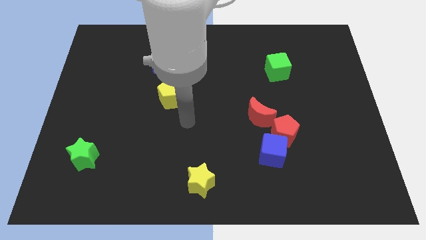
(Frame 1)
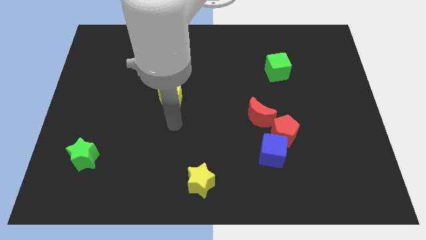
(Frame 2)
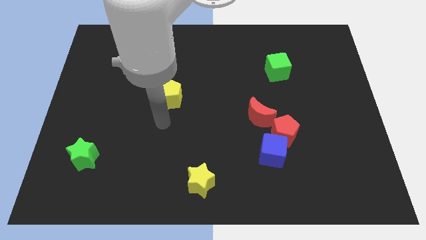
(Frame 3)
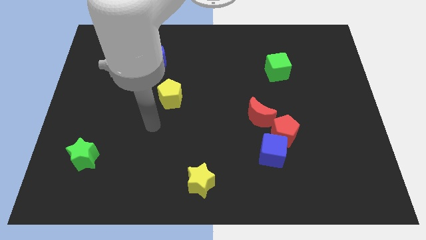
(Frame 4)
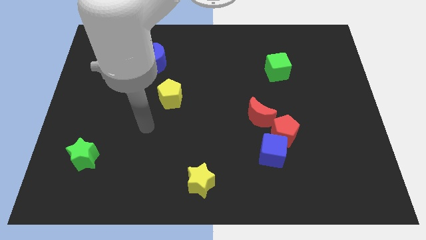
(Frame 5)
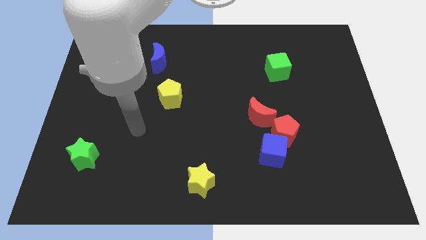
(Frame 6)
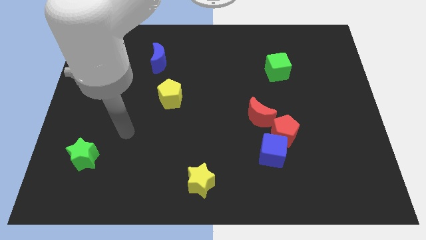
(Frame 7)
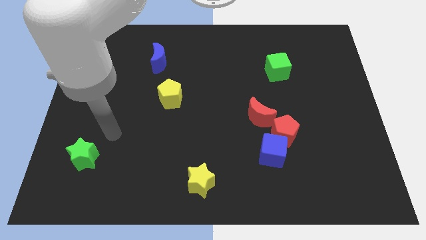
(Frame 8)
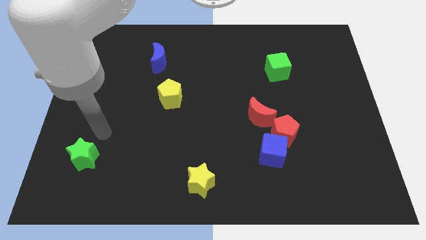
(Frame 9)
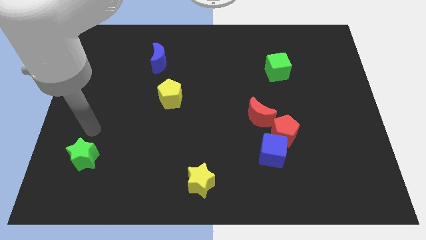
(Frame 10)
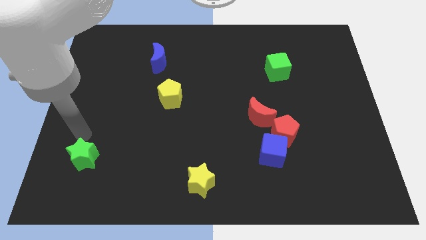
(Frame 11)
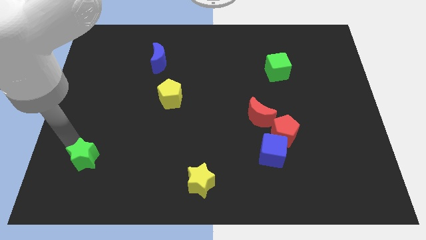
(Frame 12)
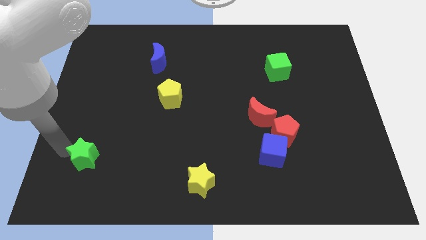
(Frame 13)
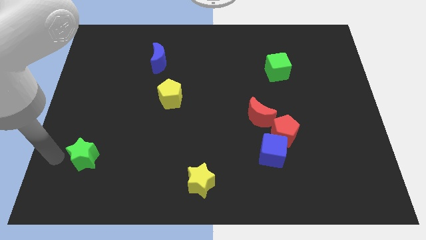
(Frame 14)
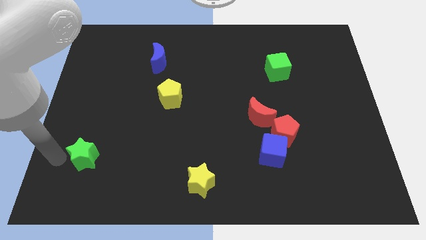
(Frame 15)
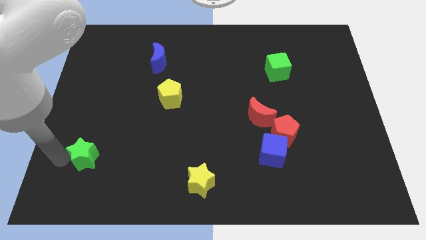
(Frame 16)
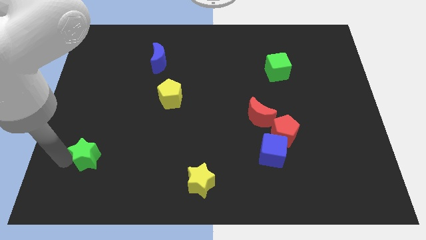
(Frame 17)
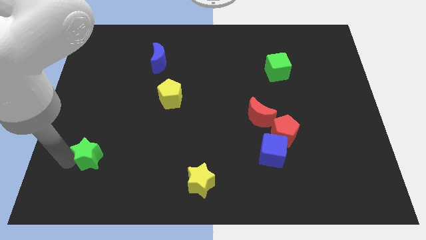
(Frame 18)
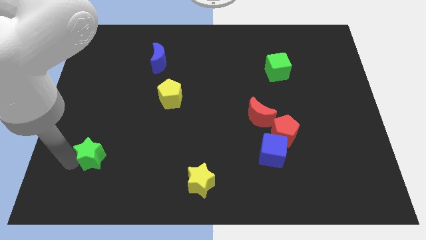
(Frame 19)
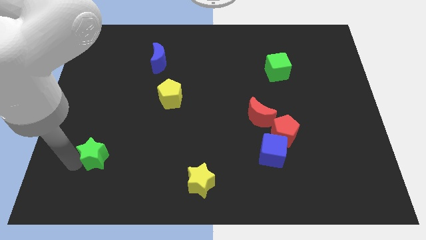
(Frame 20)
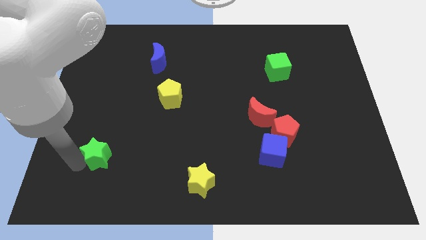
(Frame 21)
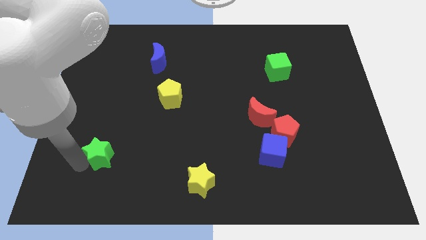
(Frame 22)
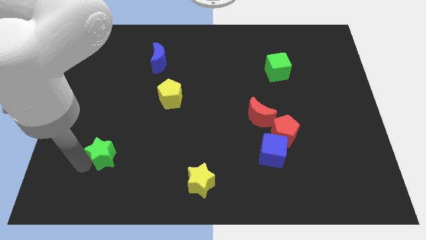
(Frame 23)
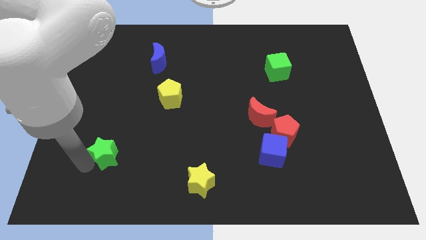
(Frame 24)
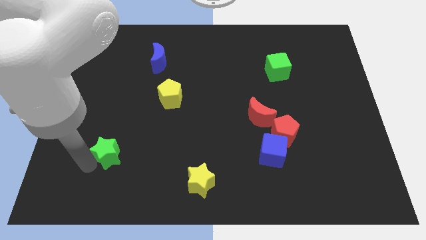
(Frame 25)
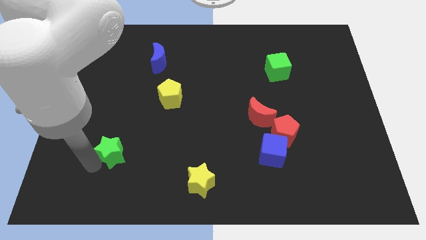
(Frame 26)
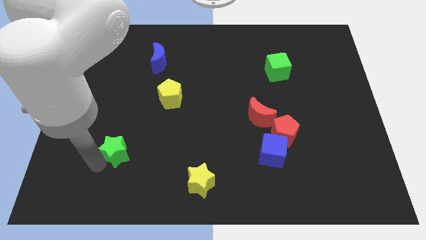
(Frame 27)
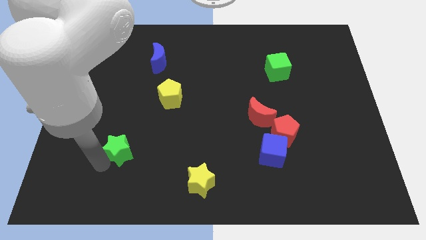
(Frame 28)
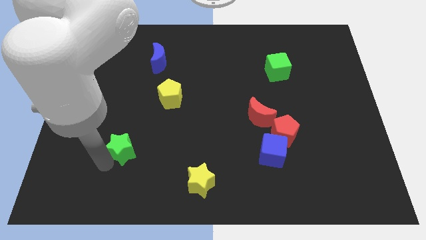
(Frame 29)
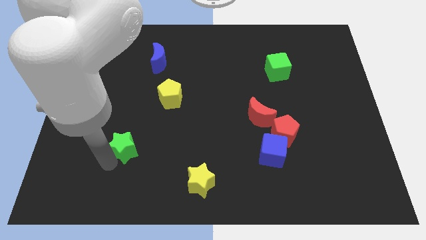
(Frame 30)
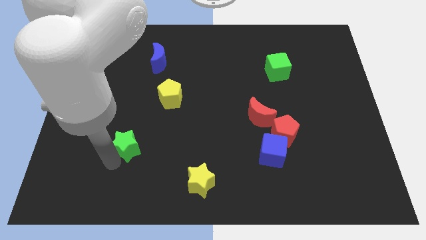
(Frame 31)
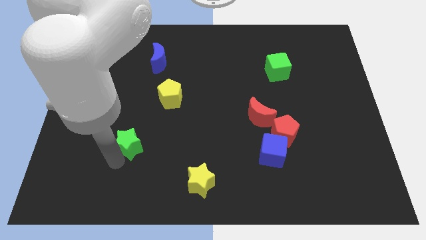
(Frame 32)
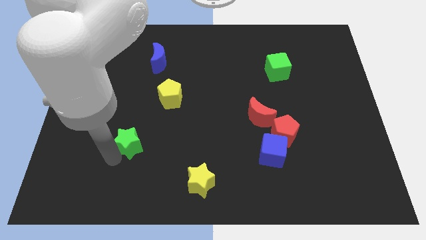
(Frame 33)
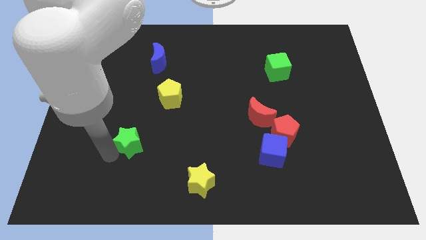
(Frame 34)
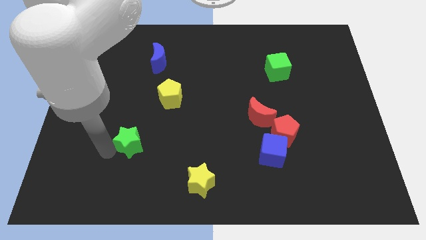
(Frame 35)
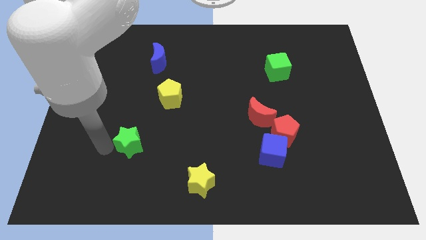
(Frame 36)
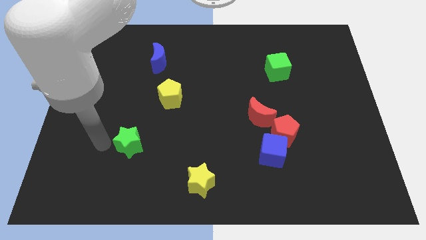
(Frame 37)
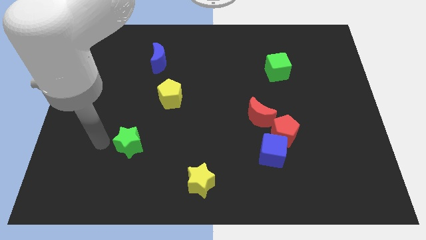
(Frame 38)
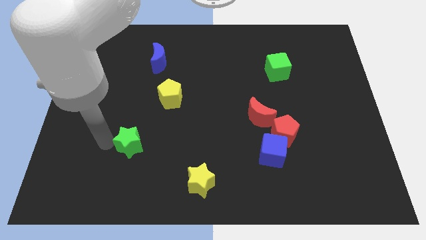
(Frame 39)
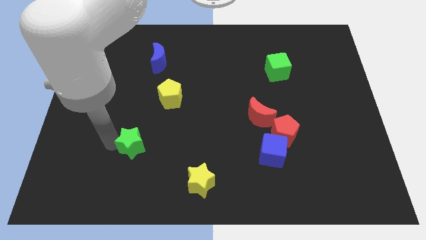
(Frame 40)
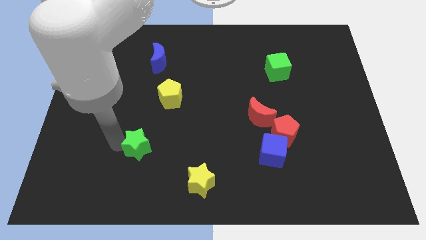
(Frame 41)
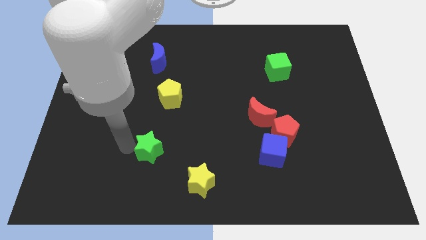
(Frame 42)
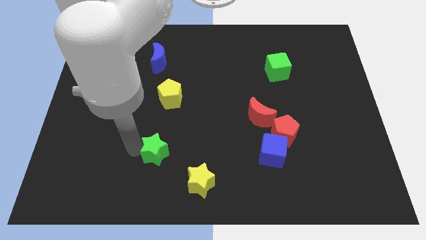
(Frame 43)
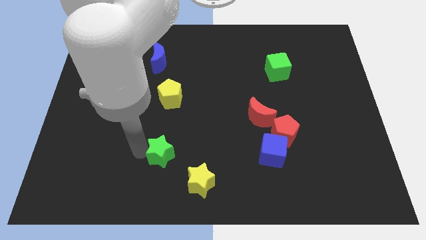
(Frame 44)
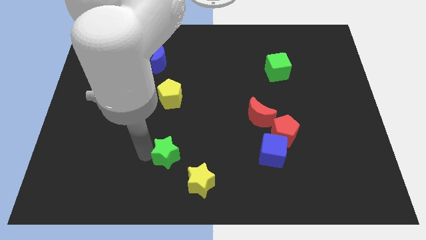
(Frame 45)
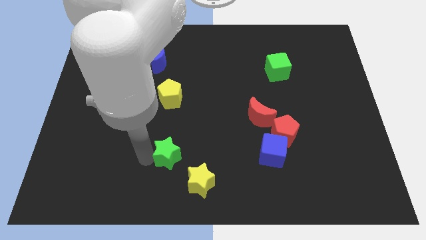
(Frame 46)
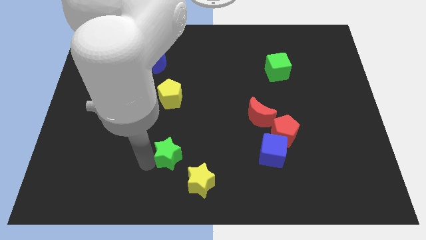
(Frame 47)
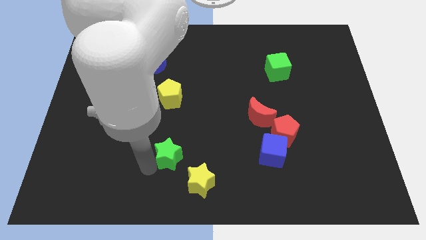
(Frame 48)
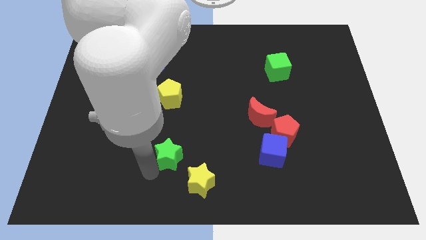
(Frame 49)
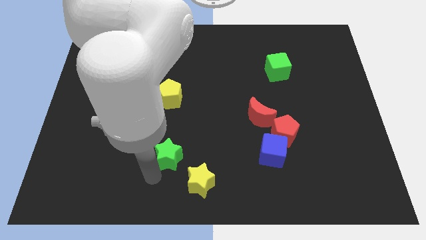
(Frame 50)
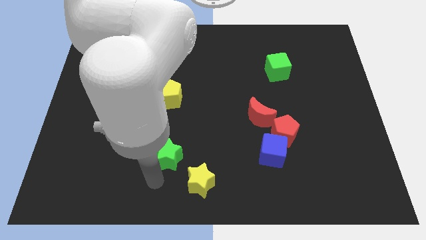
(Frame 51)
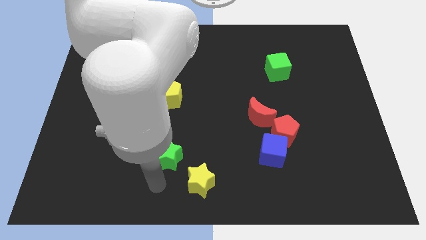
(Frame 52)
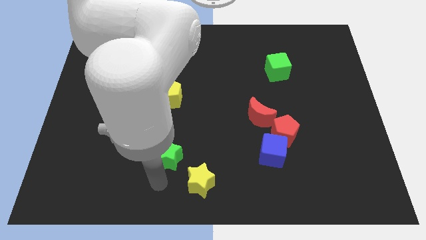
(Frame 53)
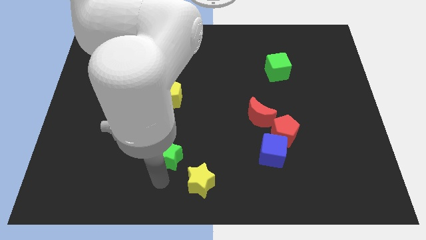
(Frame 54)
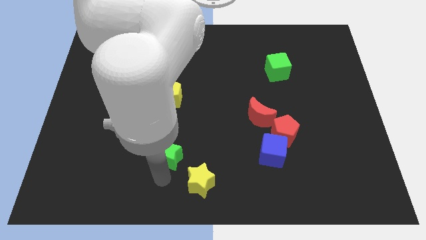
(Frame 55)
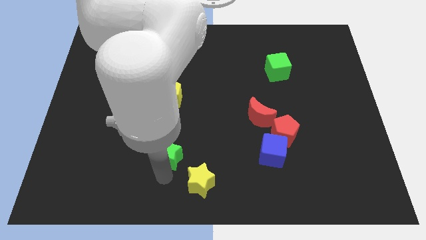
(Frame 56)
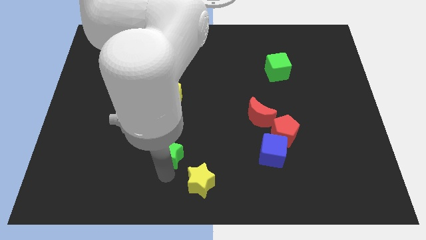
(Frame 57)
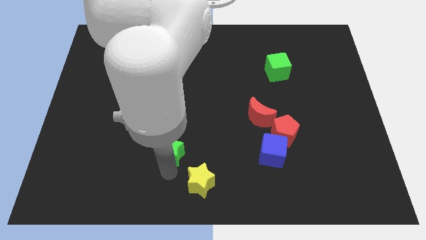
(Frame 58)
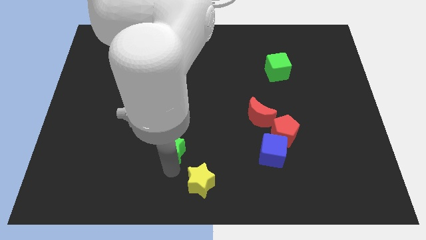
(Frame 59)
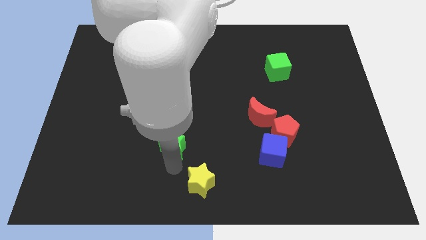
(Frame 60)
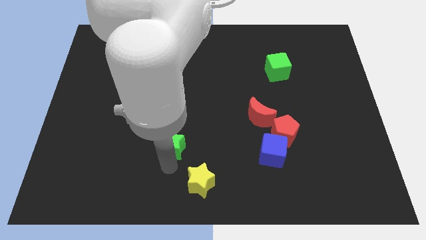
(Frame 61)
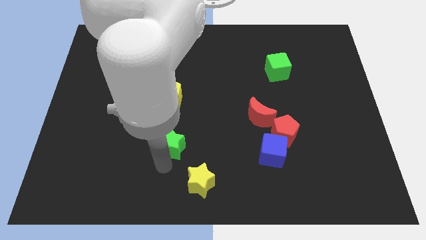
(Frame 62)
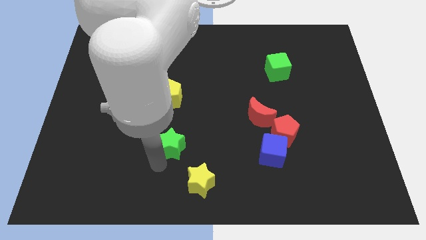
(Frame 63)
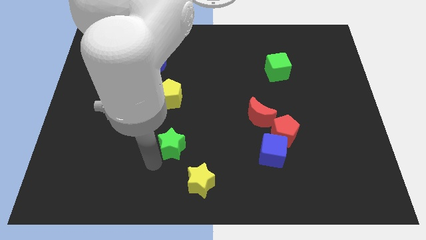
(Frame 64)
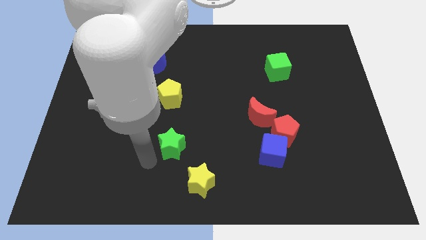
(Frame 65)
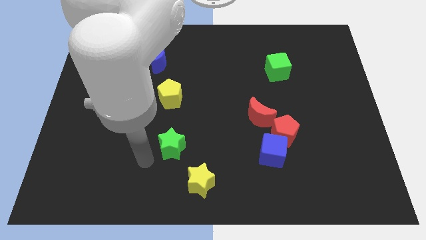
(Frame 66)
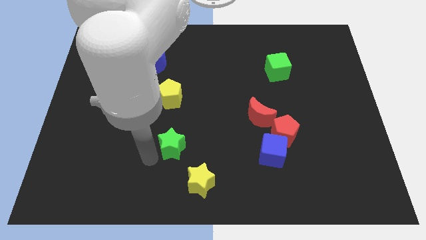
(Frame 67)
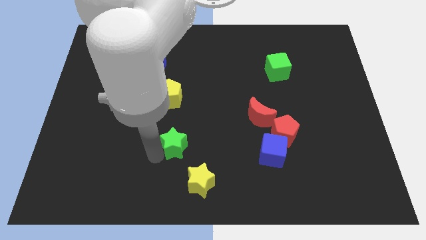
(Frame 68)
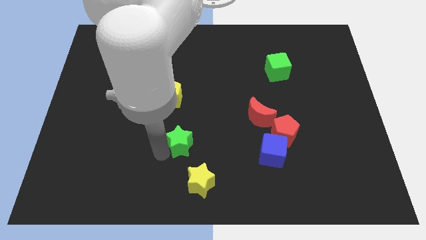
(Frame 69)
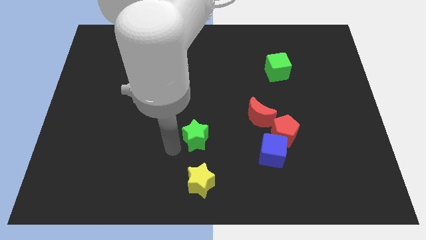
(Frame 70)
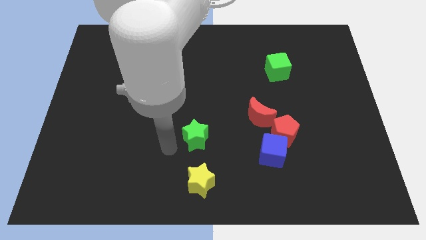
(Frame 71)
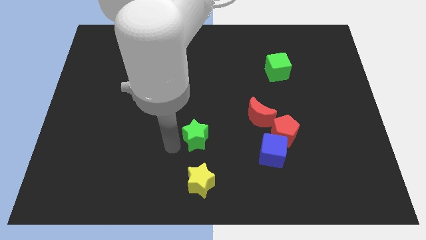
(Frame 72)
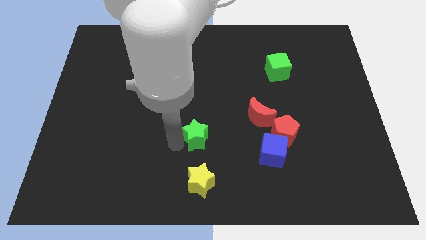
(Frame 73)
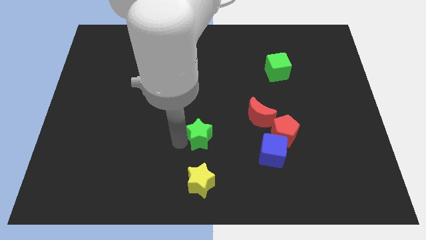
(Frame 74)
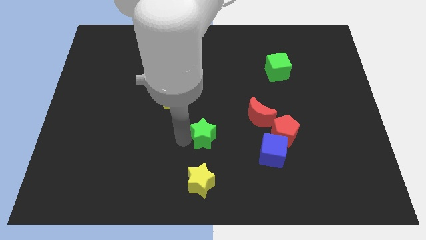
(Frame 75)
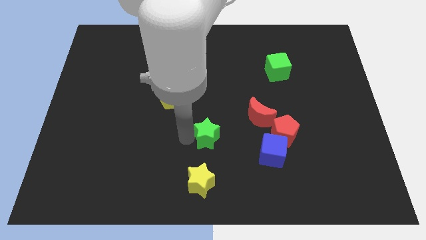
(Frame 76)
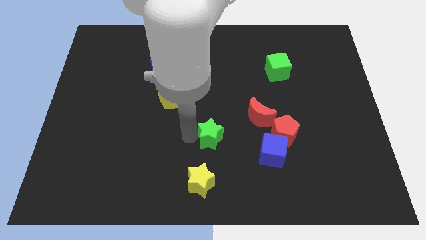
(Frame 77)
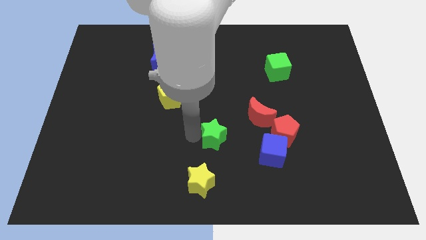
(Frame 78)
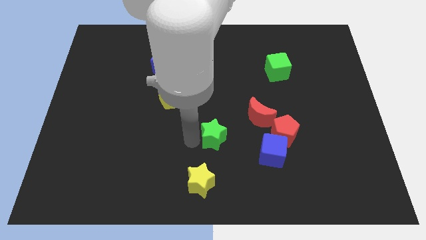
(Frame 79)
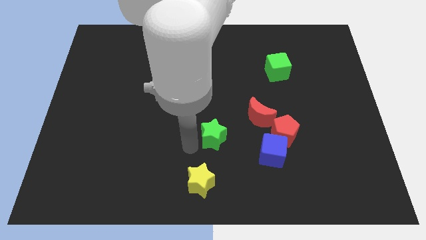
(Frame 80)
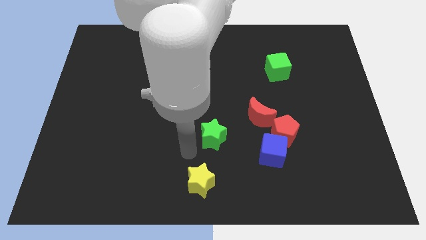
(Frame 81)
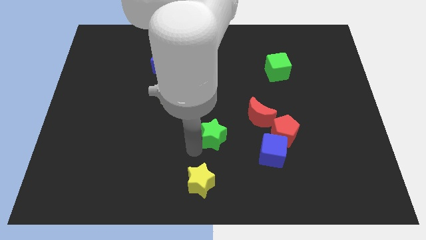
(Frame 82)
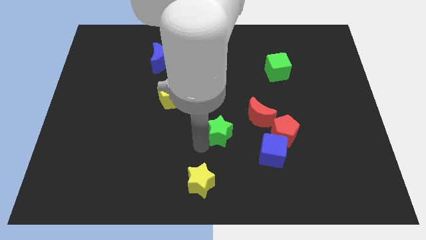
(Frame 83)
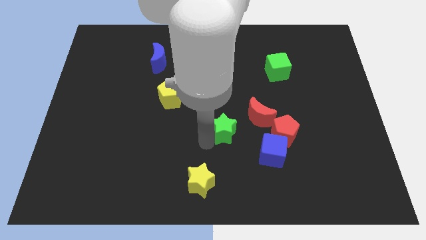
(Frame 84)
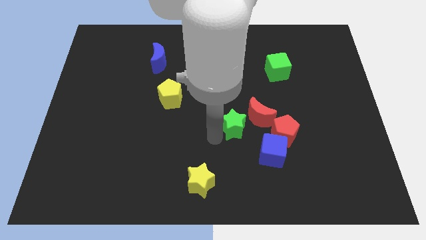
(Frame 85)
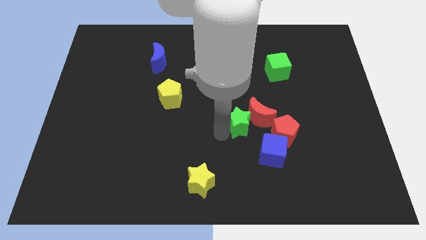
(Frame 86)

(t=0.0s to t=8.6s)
put the green star next to the red moon
